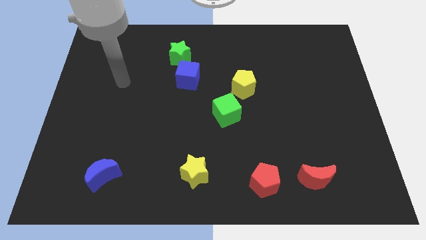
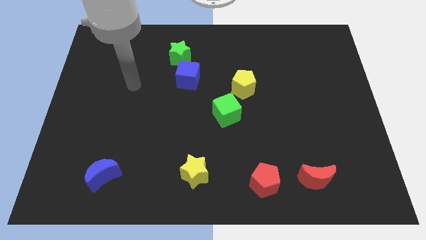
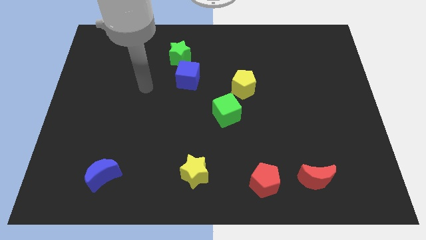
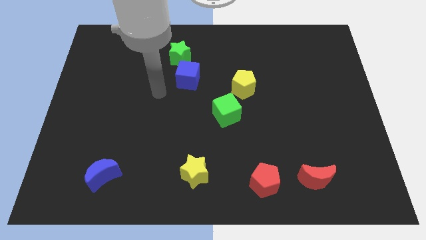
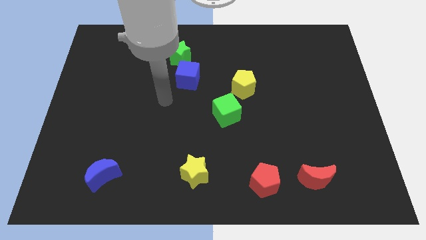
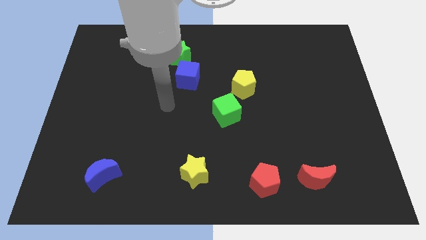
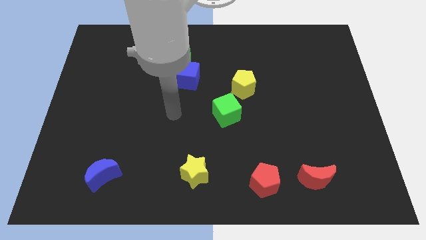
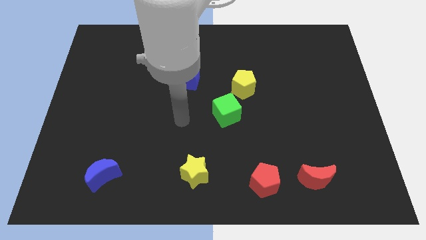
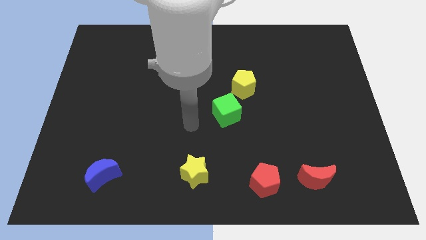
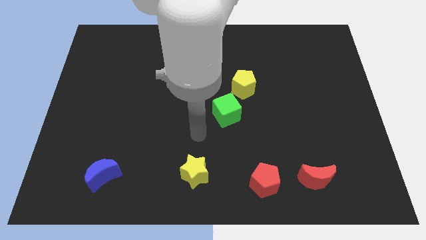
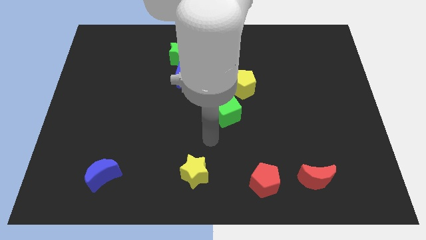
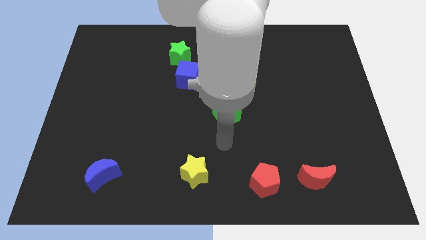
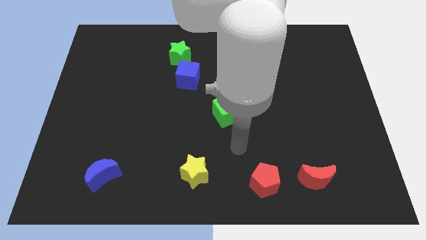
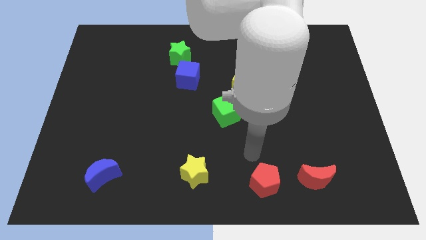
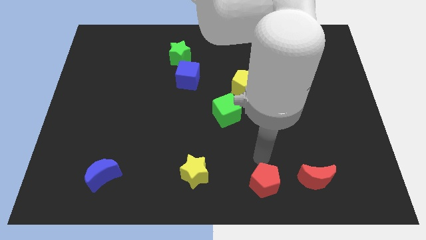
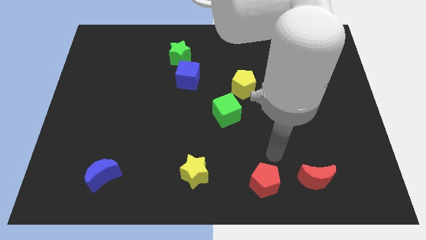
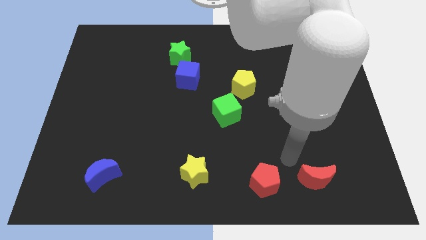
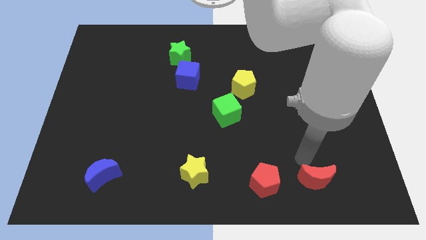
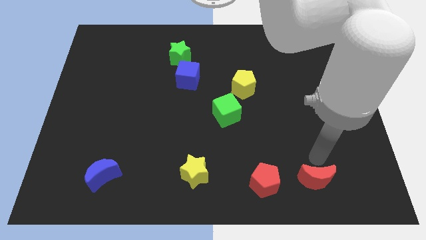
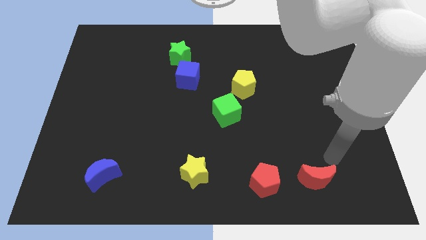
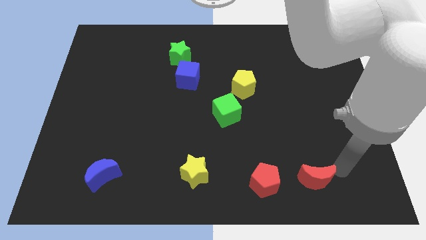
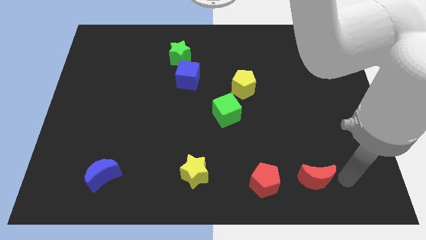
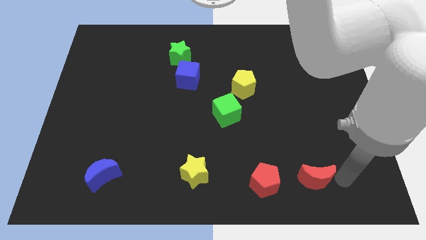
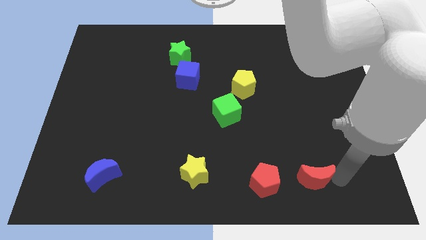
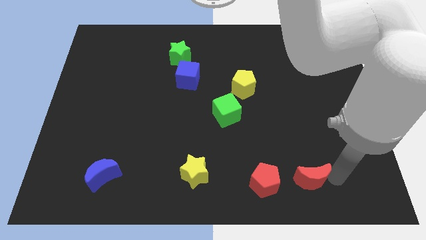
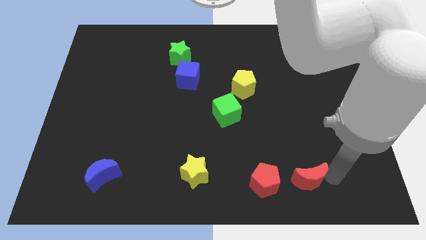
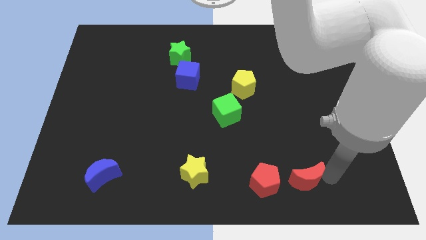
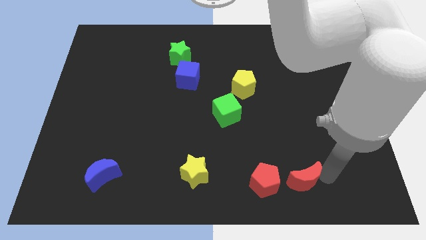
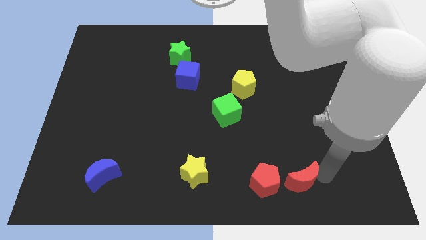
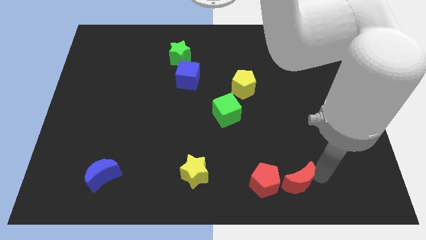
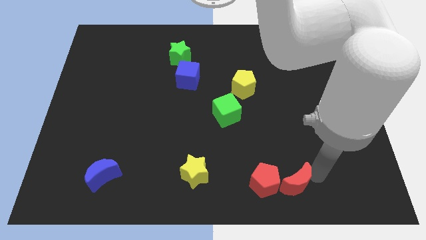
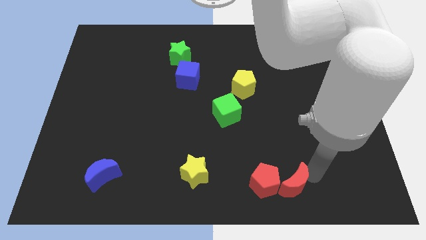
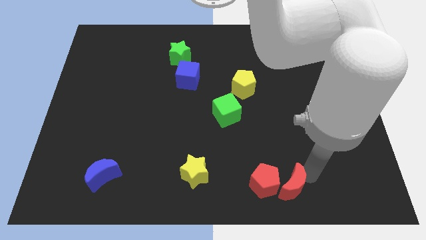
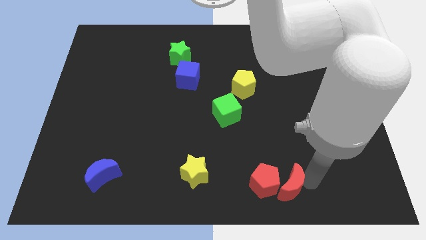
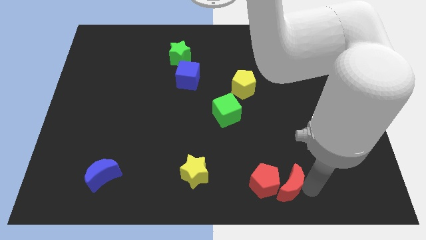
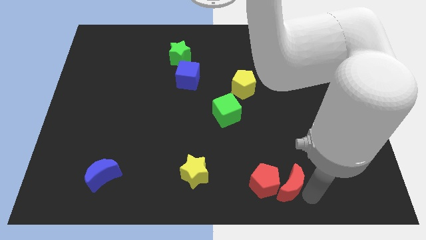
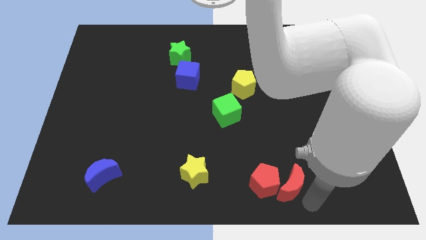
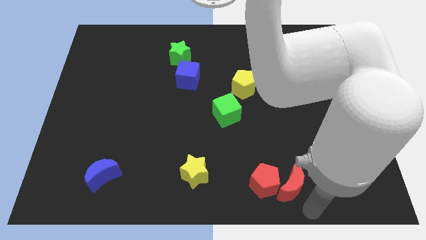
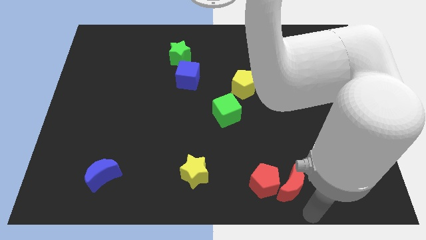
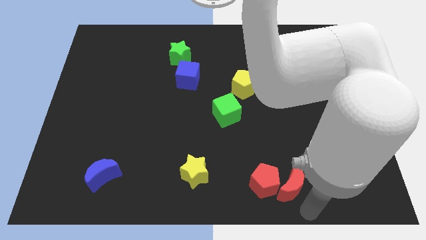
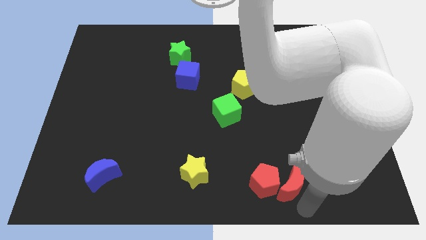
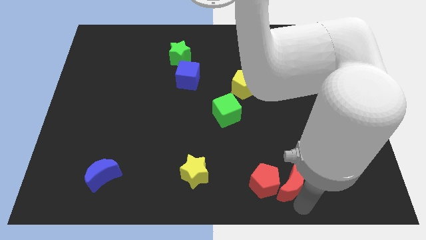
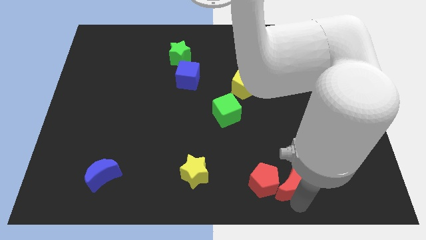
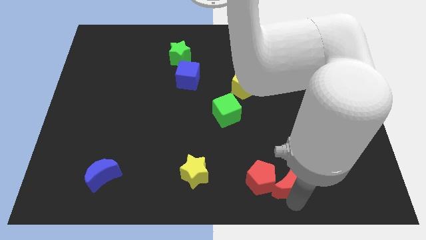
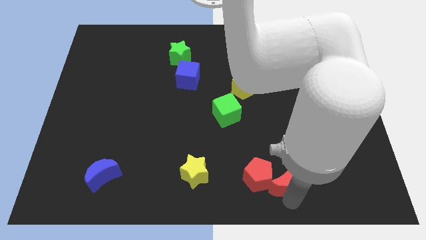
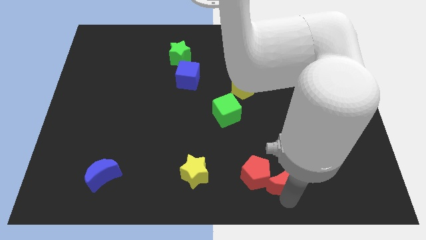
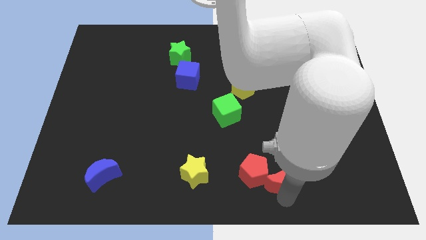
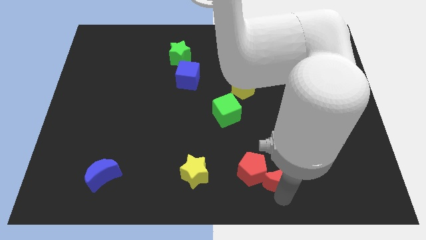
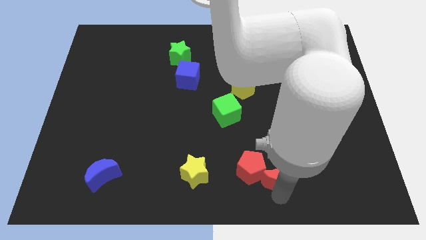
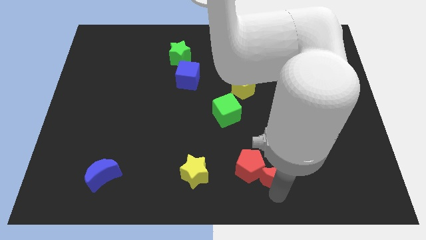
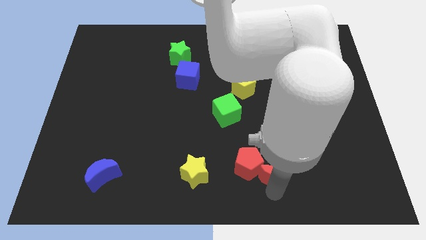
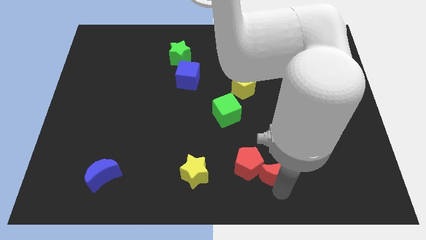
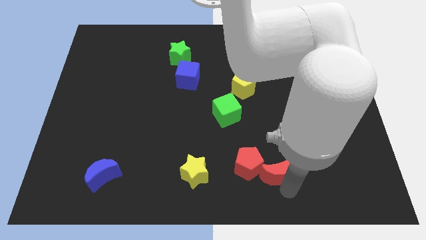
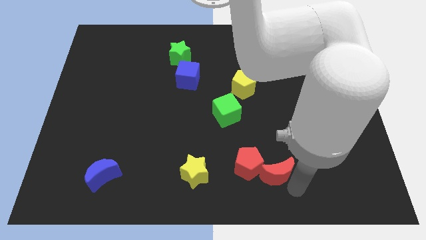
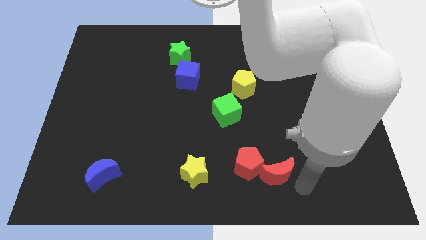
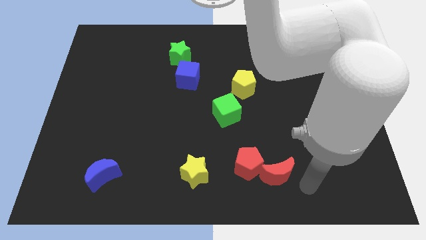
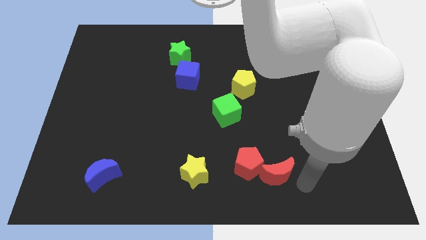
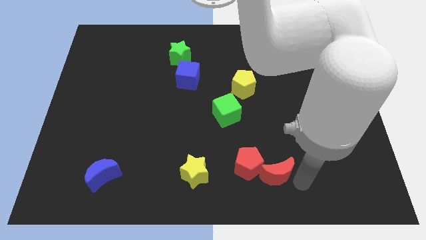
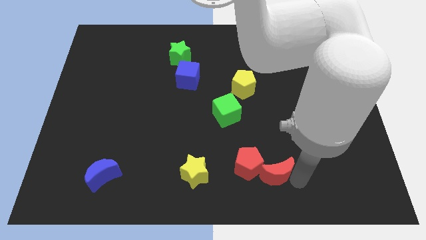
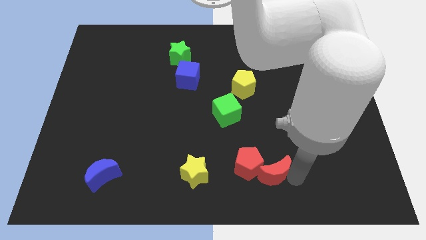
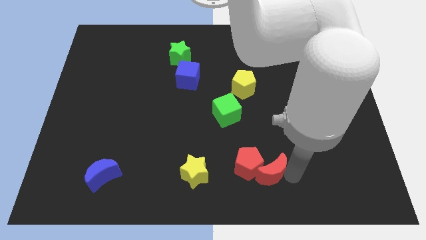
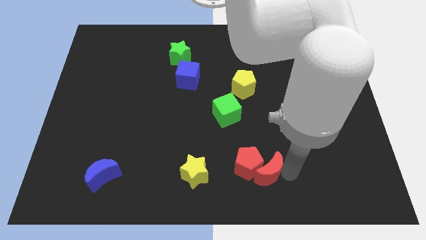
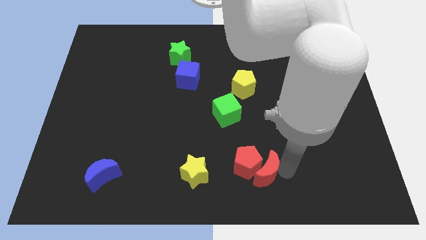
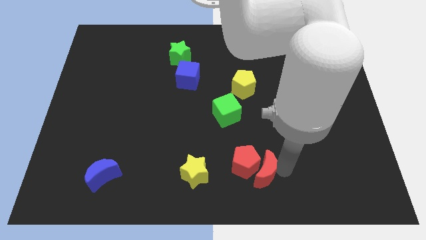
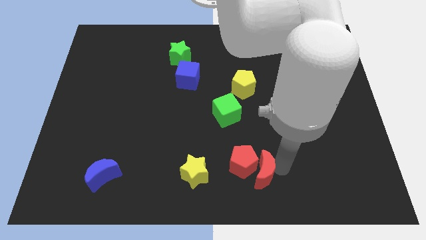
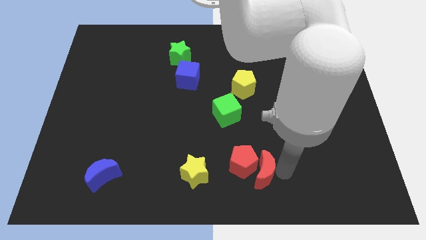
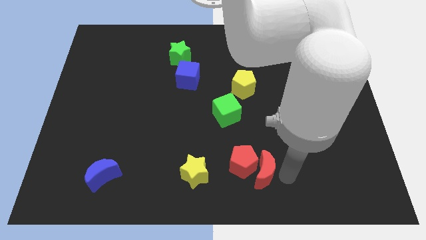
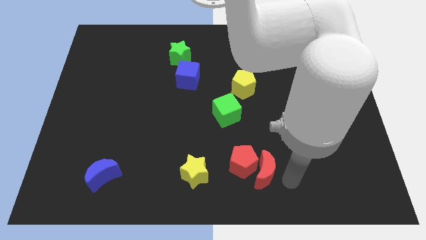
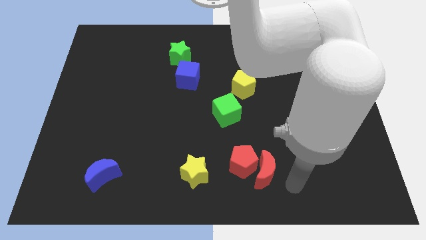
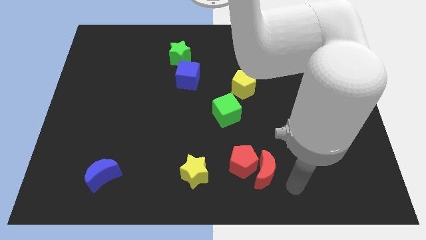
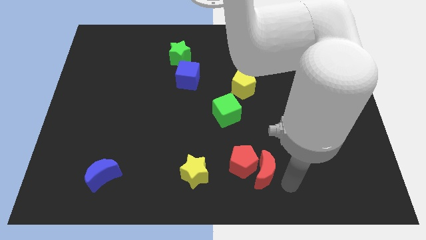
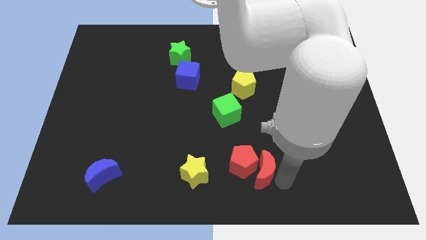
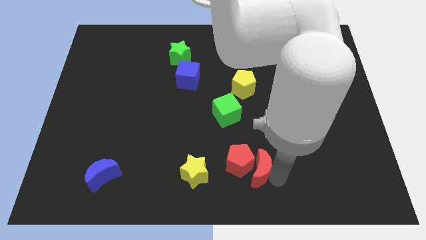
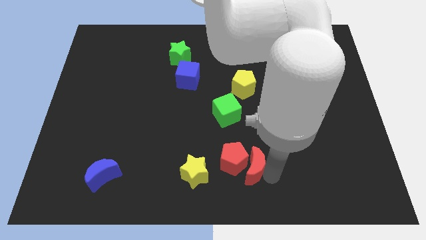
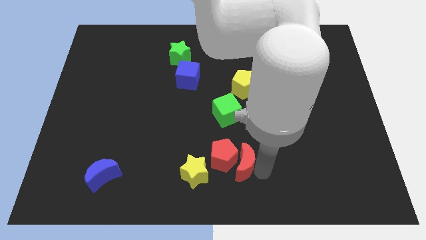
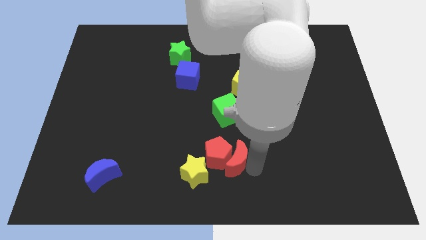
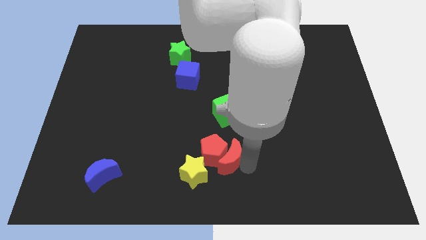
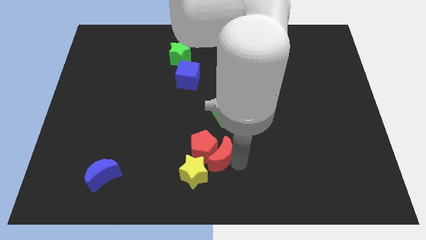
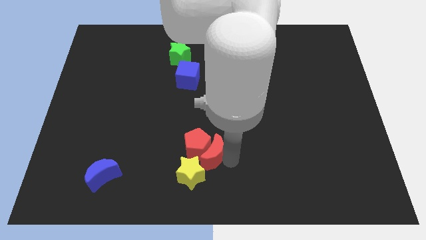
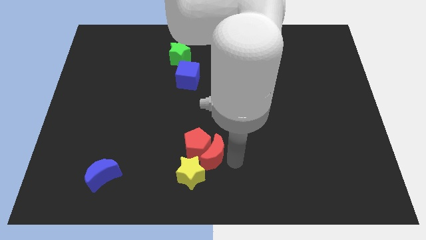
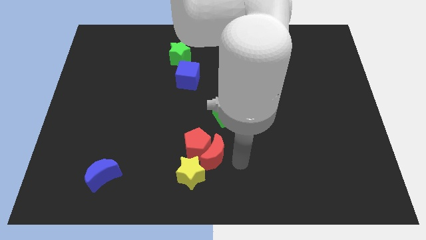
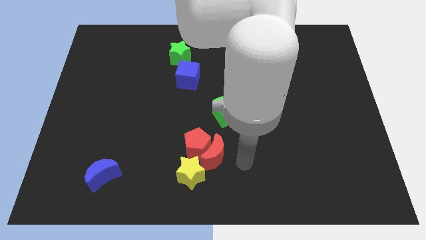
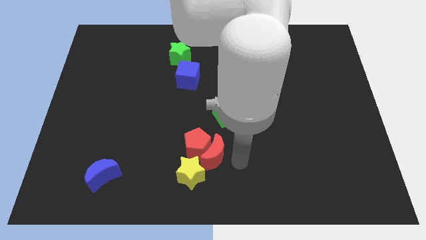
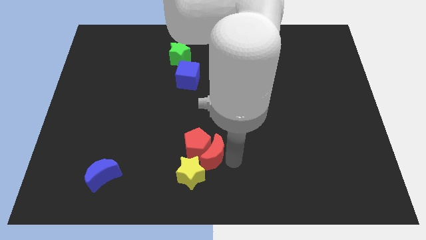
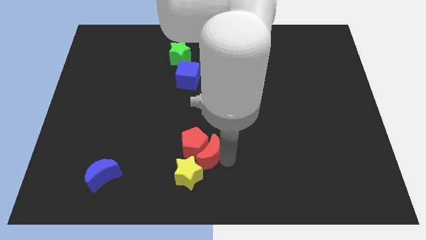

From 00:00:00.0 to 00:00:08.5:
push the red moon left
